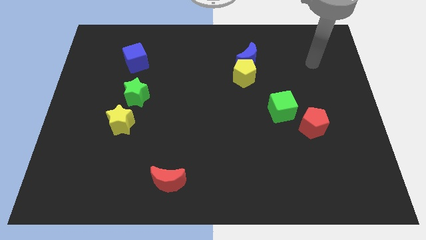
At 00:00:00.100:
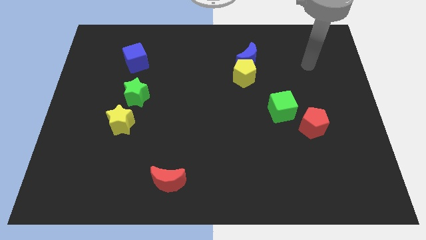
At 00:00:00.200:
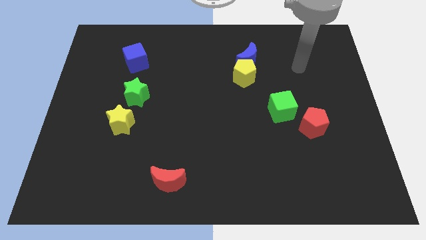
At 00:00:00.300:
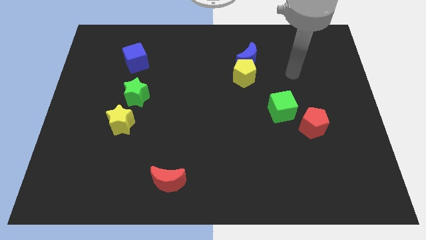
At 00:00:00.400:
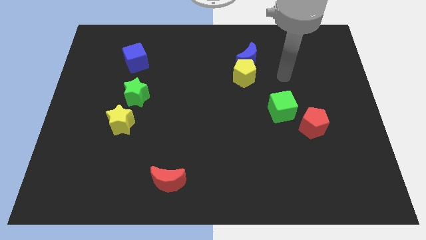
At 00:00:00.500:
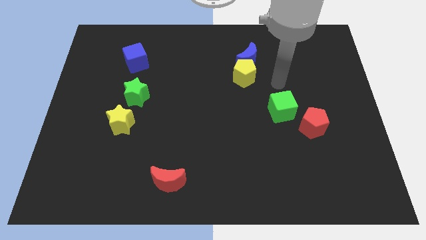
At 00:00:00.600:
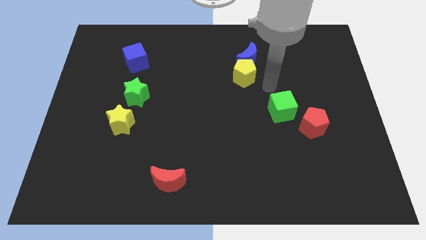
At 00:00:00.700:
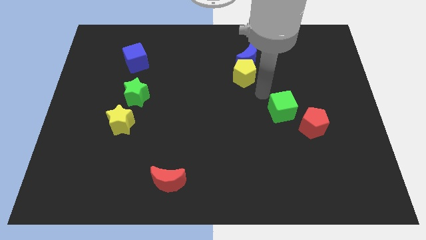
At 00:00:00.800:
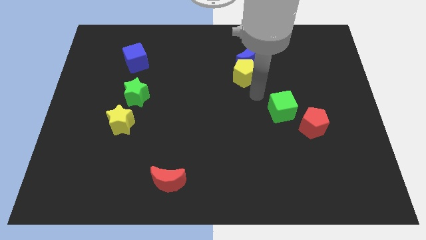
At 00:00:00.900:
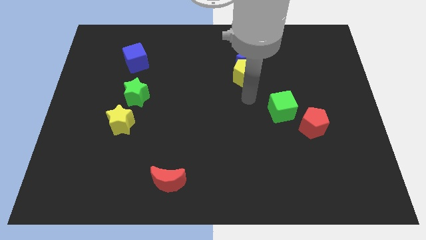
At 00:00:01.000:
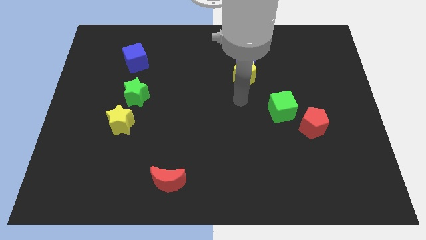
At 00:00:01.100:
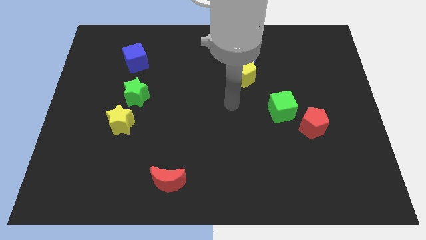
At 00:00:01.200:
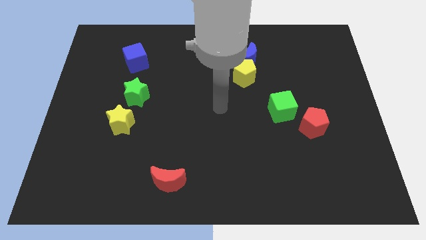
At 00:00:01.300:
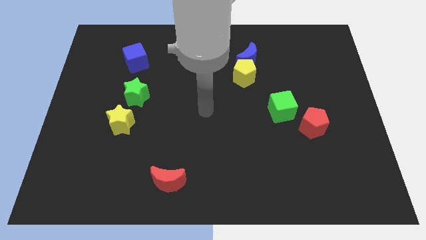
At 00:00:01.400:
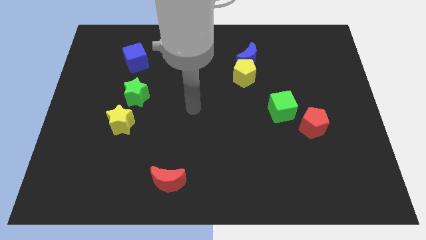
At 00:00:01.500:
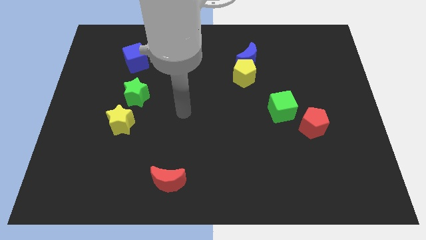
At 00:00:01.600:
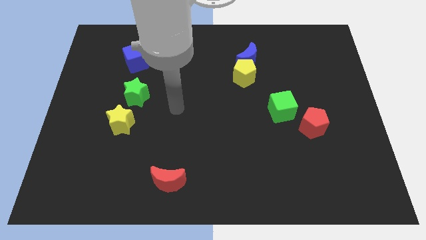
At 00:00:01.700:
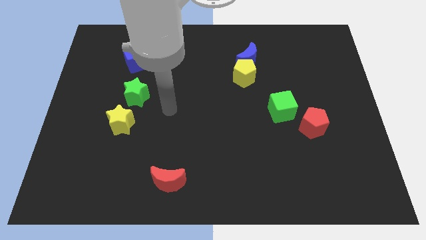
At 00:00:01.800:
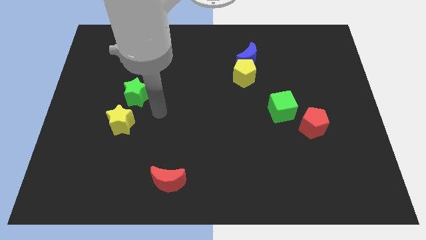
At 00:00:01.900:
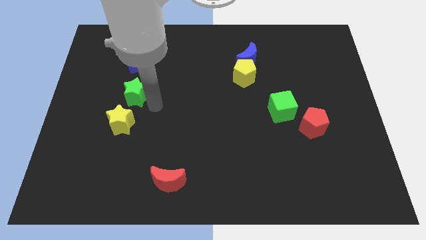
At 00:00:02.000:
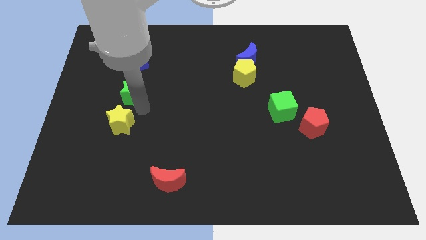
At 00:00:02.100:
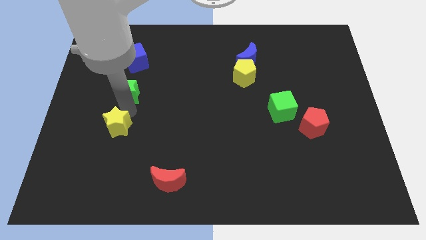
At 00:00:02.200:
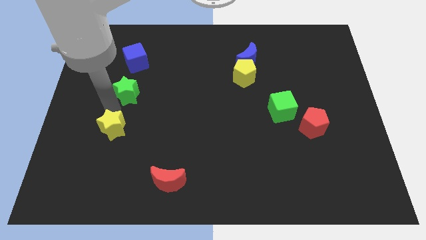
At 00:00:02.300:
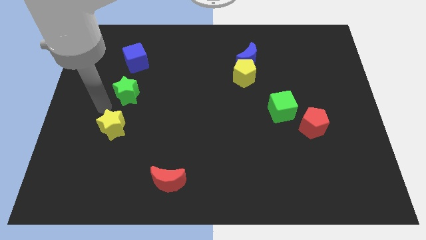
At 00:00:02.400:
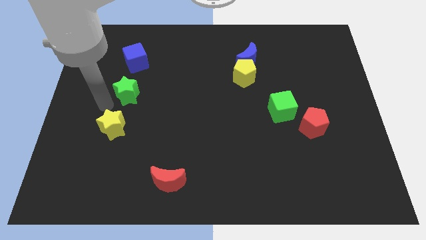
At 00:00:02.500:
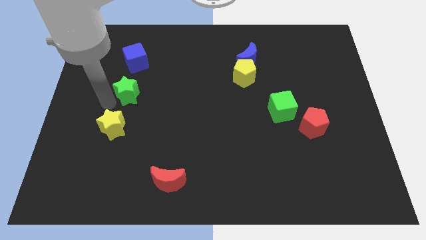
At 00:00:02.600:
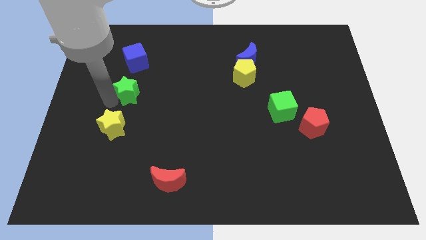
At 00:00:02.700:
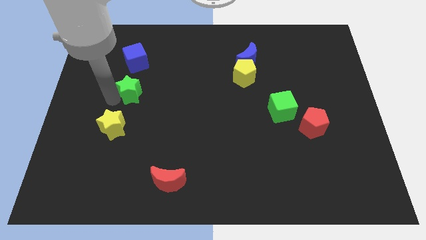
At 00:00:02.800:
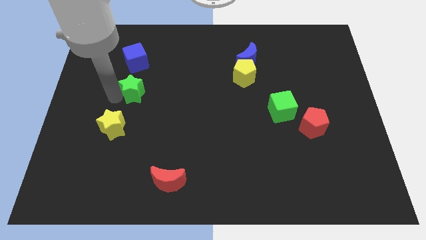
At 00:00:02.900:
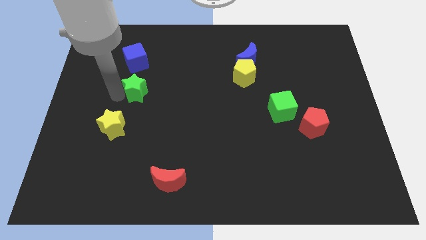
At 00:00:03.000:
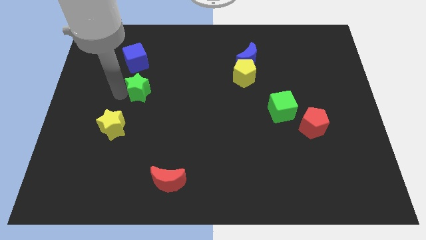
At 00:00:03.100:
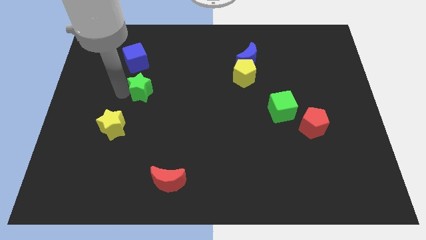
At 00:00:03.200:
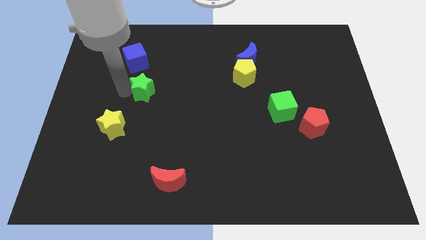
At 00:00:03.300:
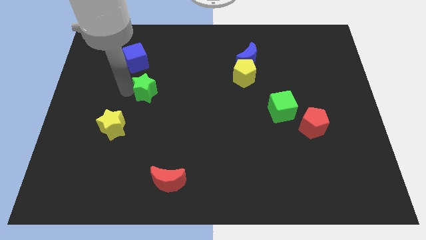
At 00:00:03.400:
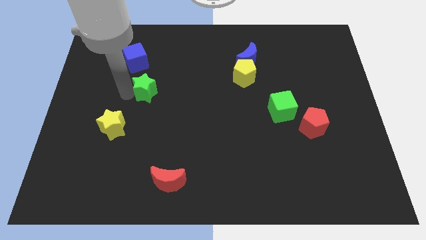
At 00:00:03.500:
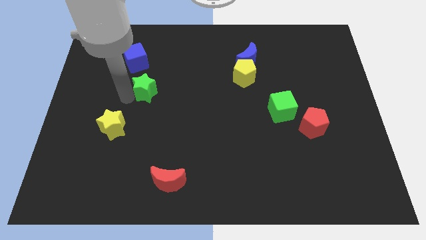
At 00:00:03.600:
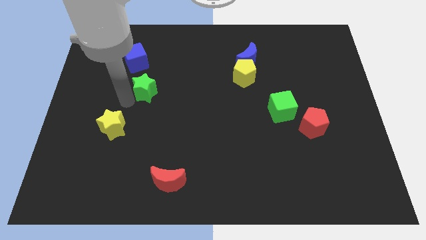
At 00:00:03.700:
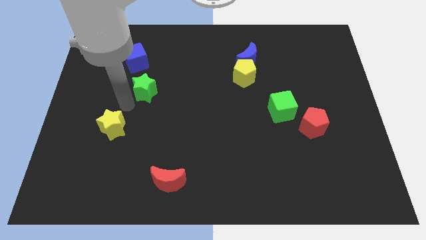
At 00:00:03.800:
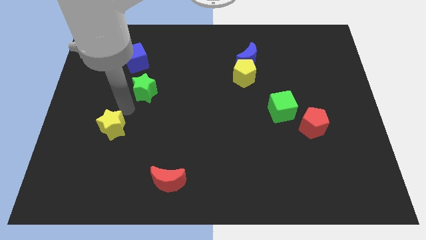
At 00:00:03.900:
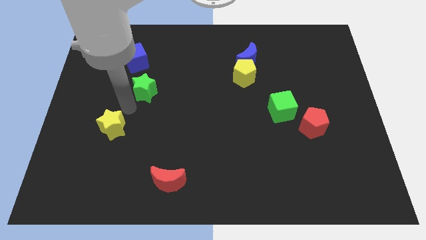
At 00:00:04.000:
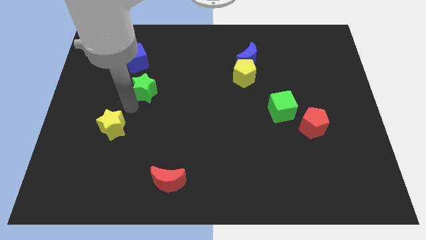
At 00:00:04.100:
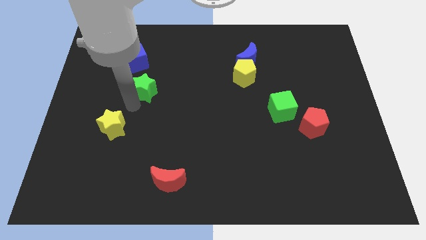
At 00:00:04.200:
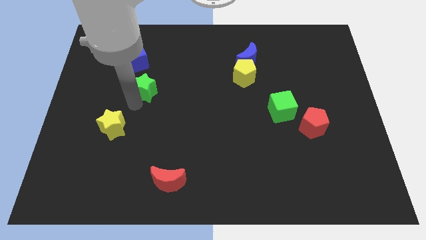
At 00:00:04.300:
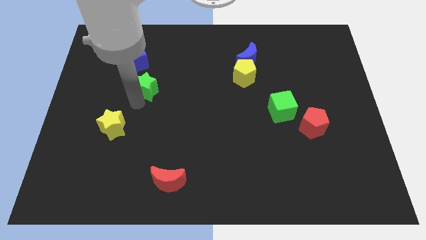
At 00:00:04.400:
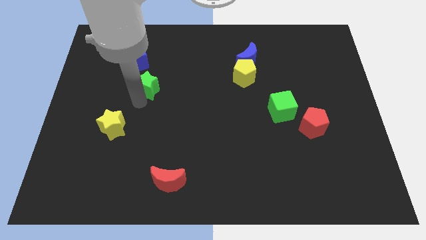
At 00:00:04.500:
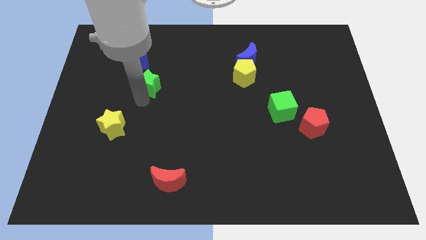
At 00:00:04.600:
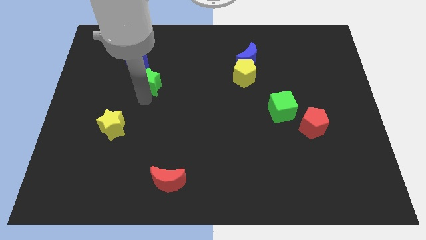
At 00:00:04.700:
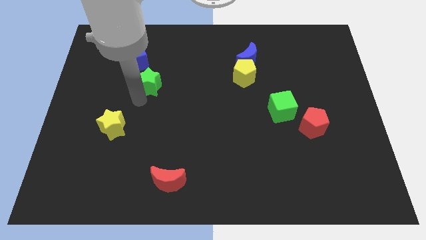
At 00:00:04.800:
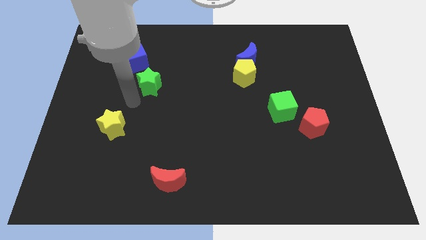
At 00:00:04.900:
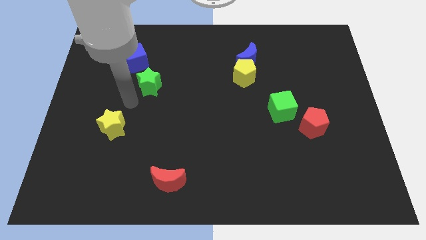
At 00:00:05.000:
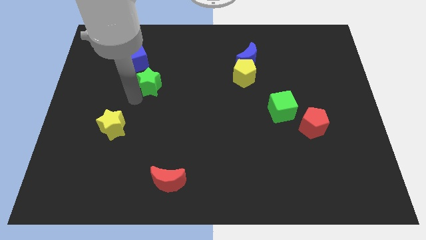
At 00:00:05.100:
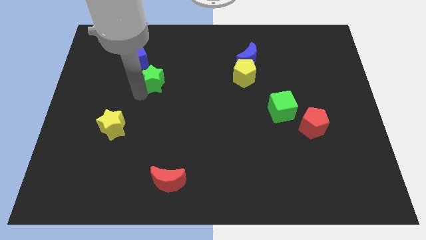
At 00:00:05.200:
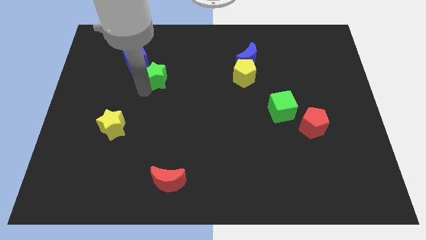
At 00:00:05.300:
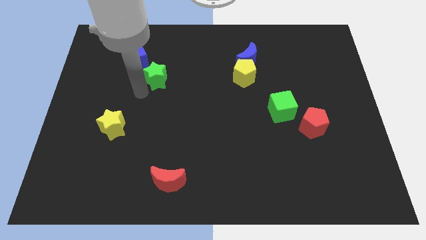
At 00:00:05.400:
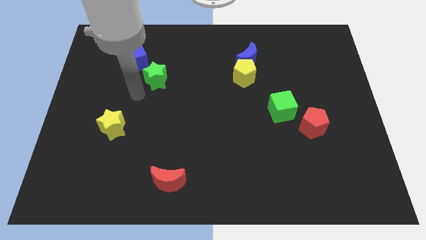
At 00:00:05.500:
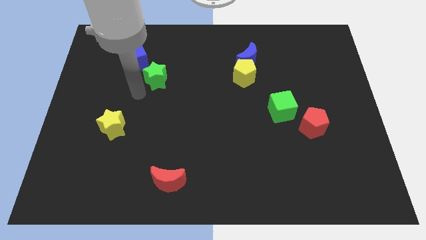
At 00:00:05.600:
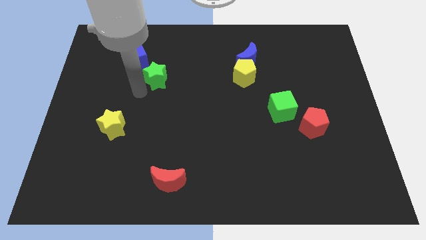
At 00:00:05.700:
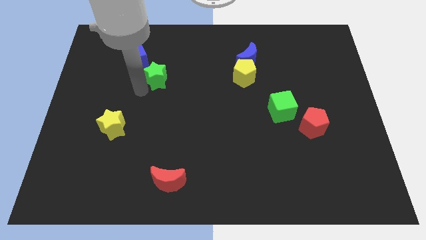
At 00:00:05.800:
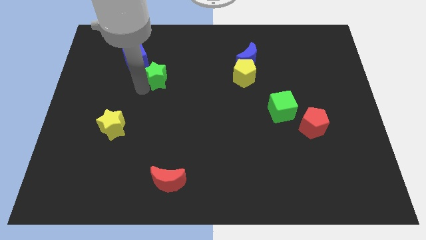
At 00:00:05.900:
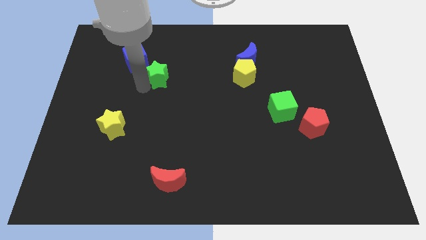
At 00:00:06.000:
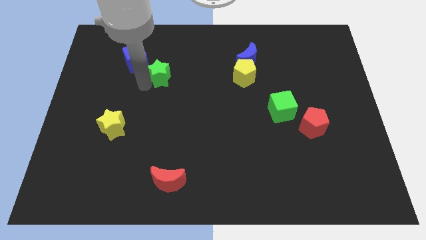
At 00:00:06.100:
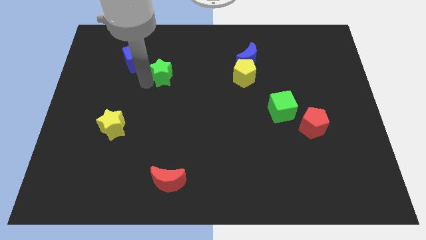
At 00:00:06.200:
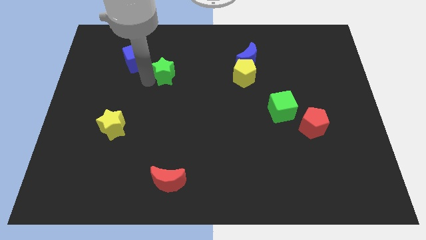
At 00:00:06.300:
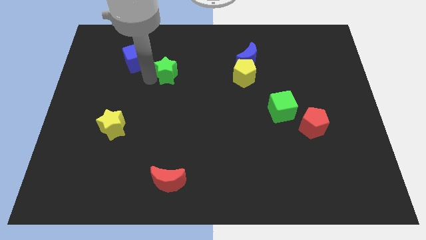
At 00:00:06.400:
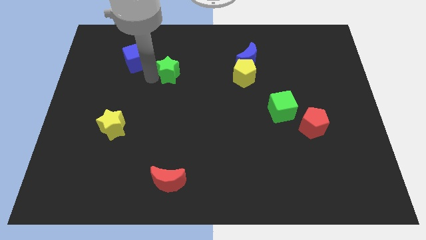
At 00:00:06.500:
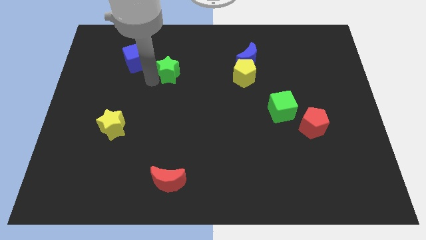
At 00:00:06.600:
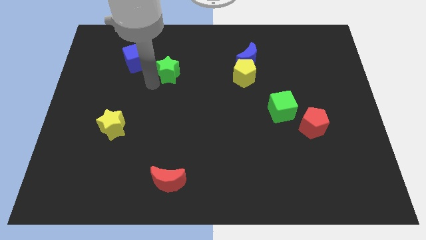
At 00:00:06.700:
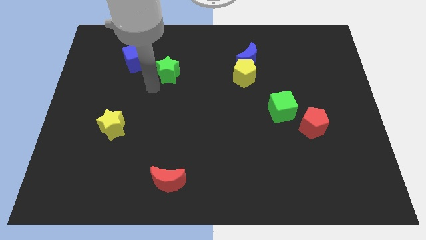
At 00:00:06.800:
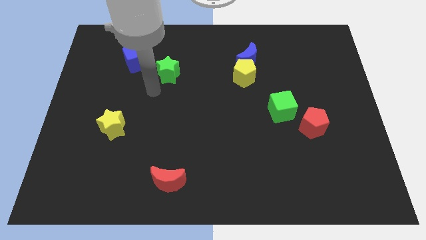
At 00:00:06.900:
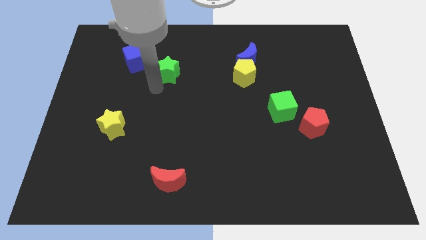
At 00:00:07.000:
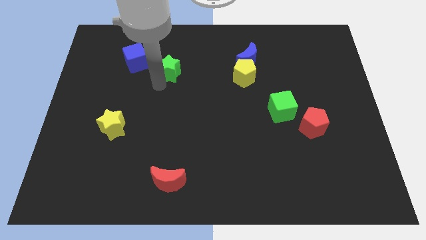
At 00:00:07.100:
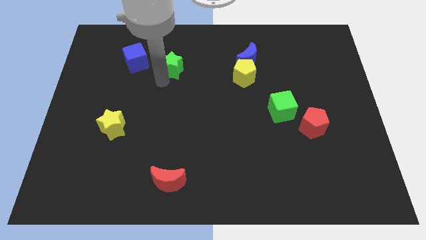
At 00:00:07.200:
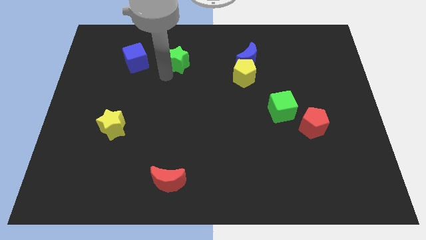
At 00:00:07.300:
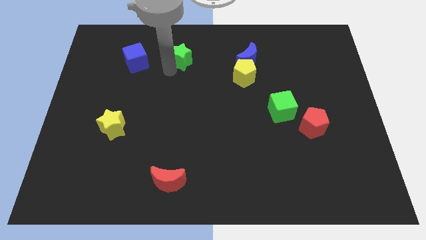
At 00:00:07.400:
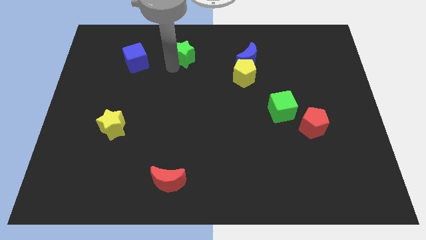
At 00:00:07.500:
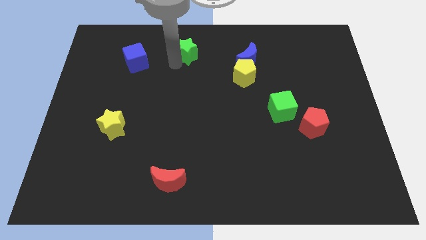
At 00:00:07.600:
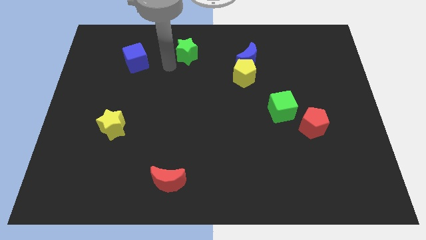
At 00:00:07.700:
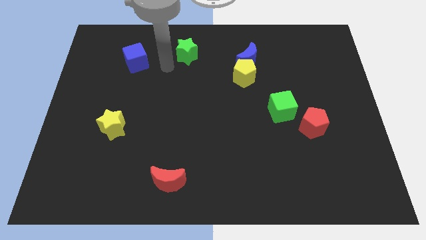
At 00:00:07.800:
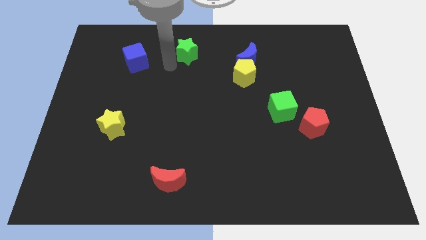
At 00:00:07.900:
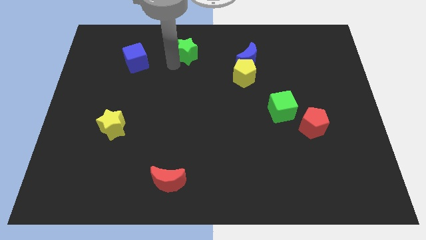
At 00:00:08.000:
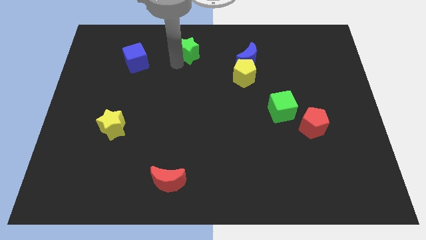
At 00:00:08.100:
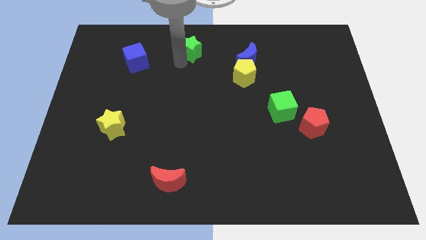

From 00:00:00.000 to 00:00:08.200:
slide the green star to the towards your base
